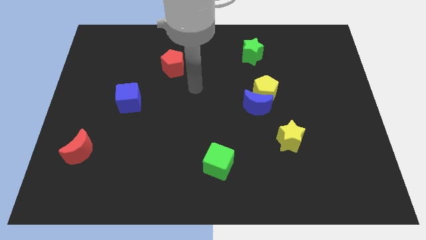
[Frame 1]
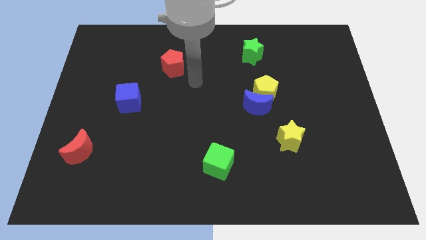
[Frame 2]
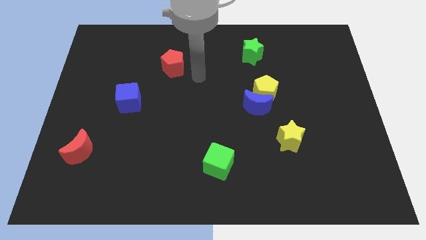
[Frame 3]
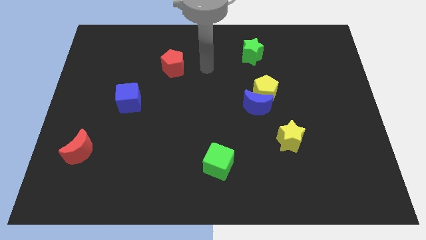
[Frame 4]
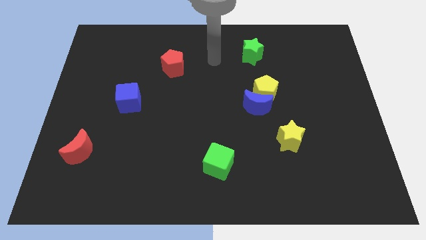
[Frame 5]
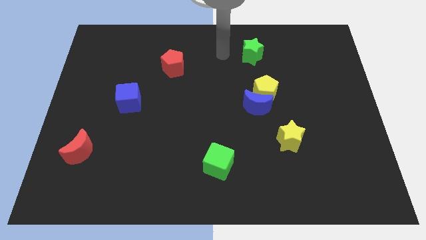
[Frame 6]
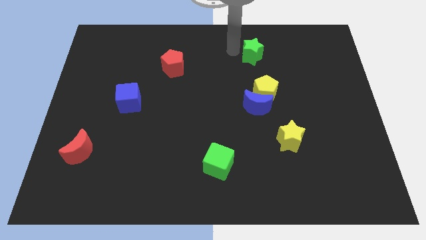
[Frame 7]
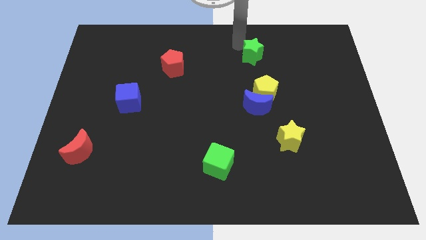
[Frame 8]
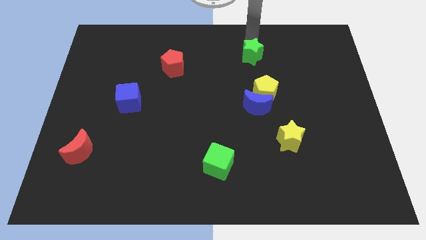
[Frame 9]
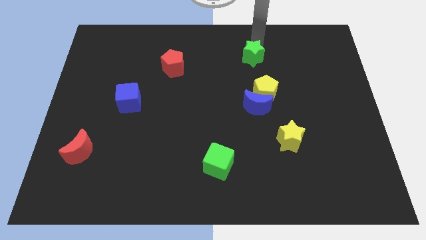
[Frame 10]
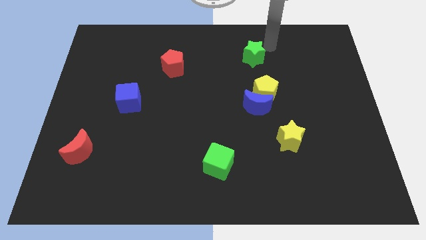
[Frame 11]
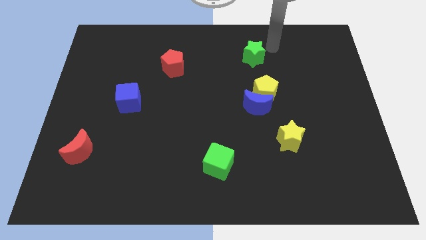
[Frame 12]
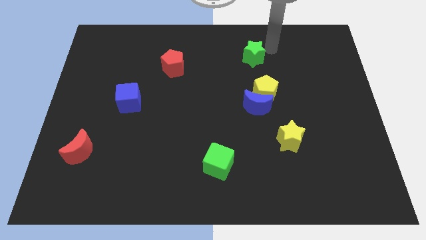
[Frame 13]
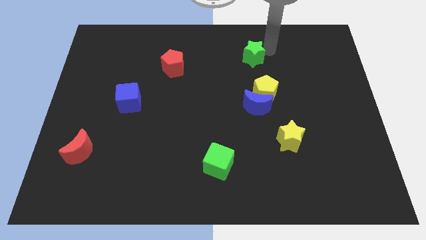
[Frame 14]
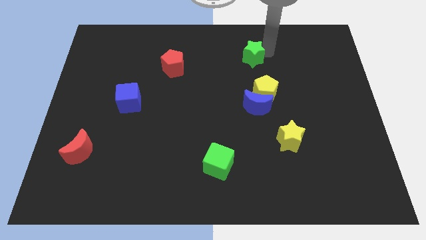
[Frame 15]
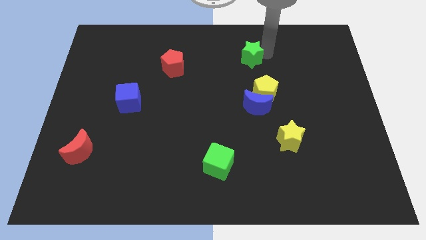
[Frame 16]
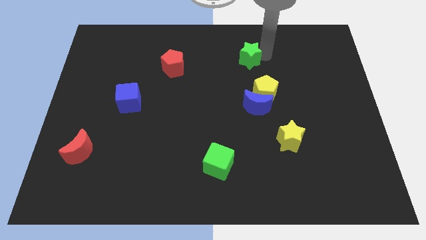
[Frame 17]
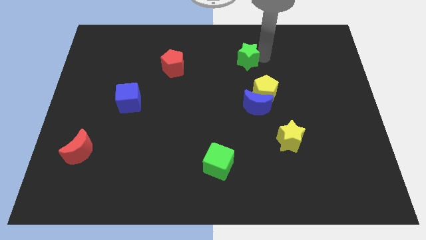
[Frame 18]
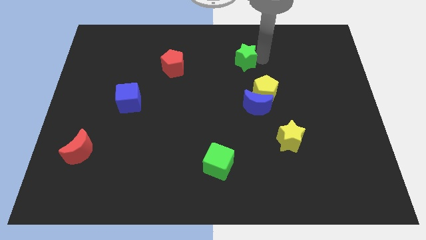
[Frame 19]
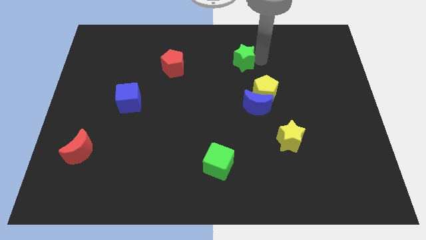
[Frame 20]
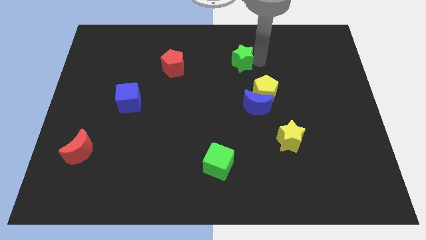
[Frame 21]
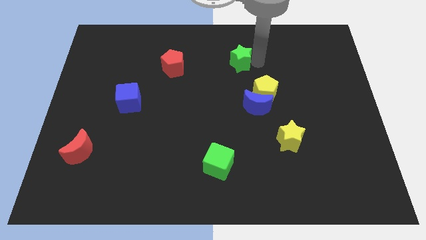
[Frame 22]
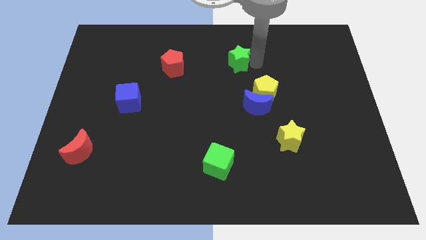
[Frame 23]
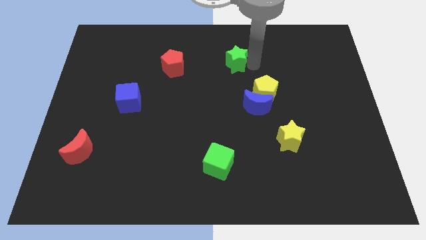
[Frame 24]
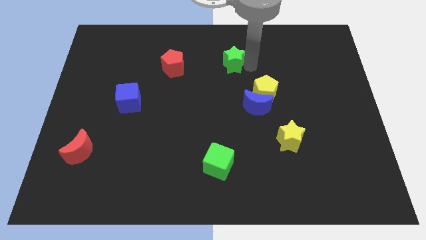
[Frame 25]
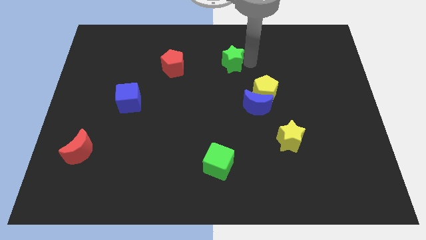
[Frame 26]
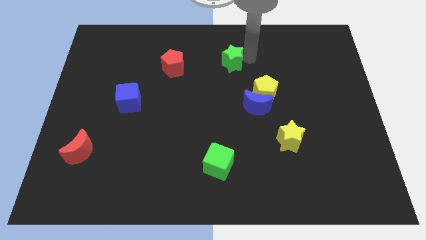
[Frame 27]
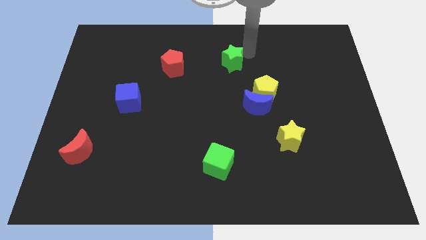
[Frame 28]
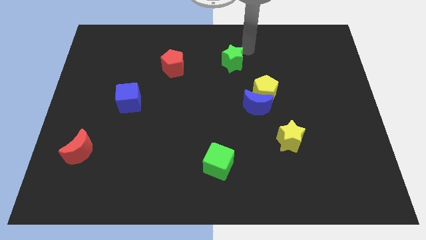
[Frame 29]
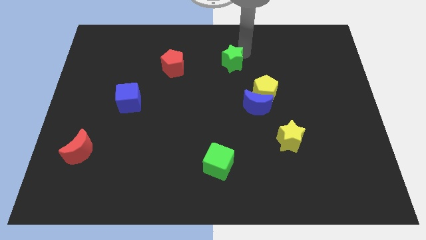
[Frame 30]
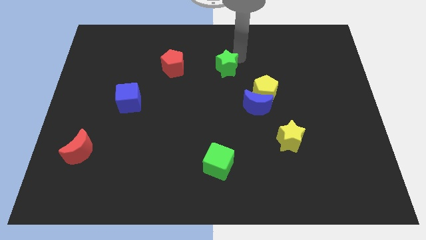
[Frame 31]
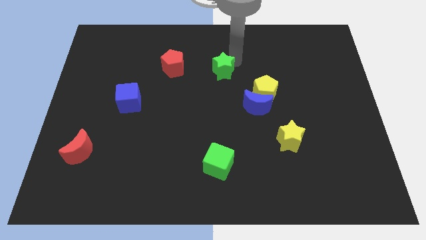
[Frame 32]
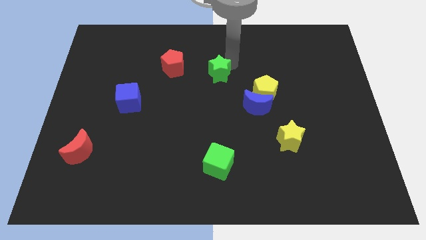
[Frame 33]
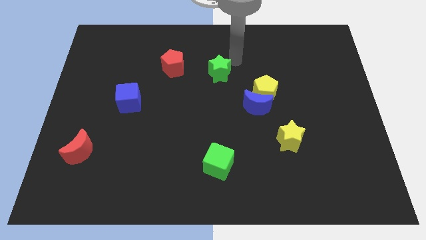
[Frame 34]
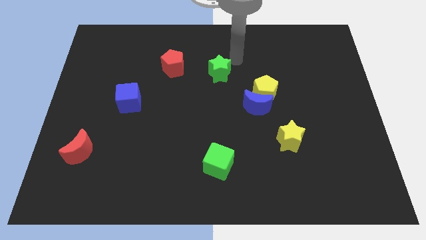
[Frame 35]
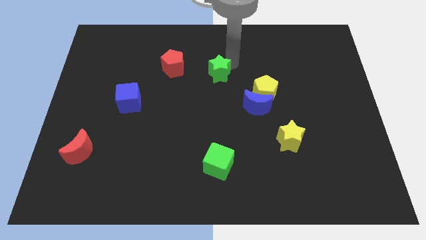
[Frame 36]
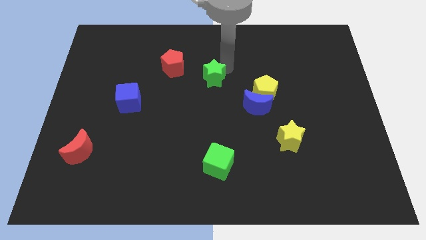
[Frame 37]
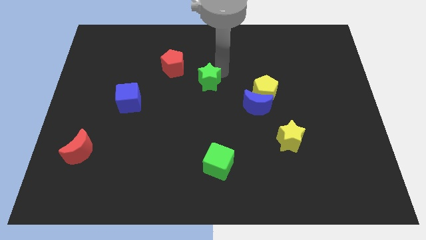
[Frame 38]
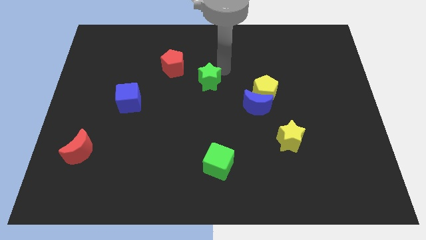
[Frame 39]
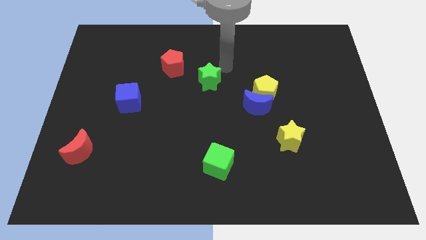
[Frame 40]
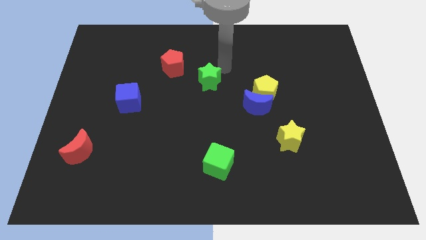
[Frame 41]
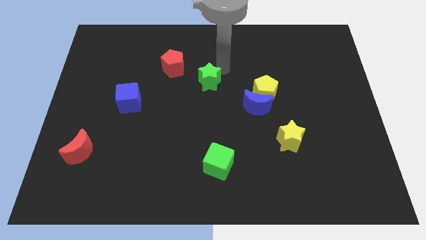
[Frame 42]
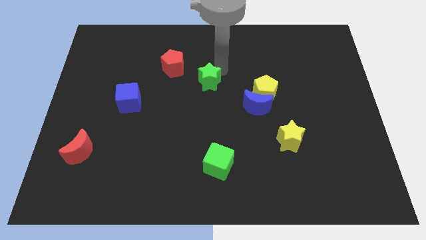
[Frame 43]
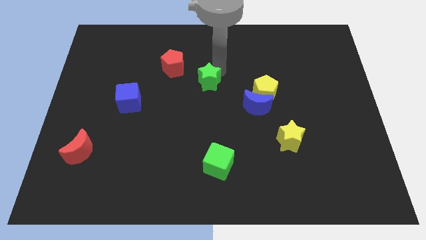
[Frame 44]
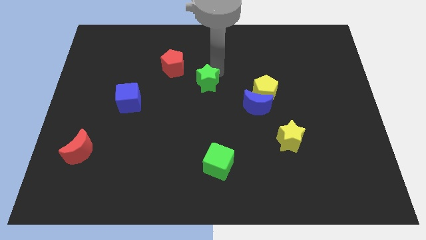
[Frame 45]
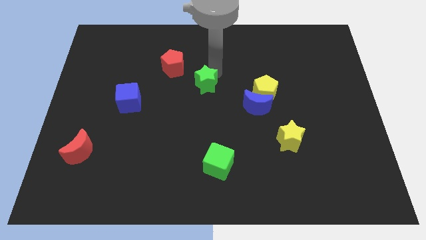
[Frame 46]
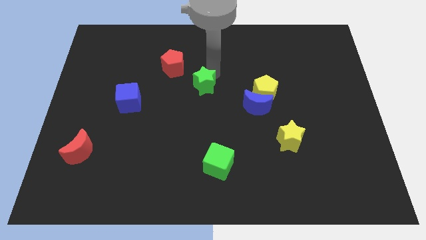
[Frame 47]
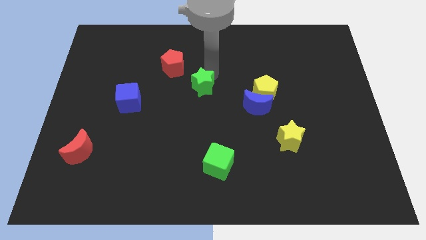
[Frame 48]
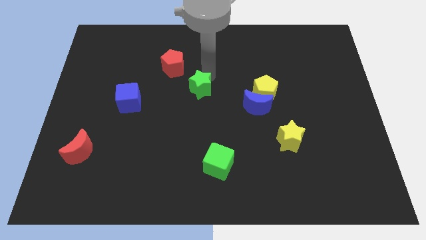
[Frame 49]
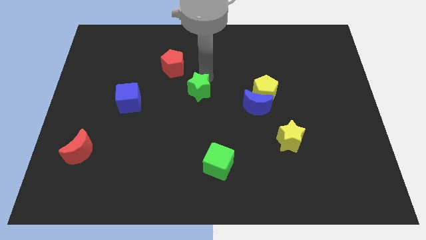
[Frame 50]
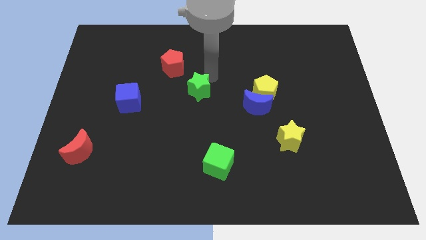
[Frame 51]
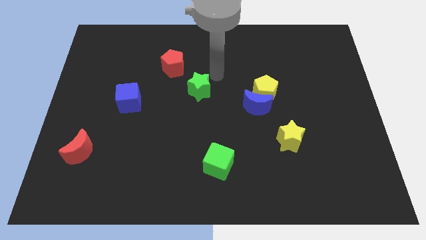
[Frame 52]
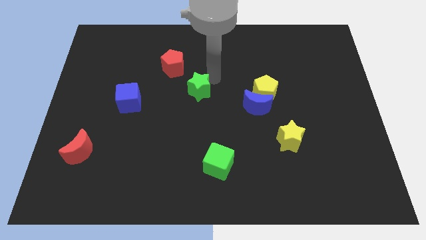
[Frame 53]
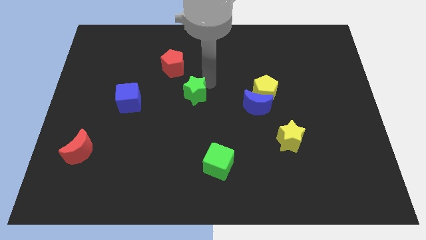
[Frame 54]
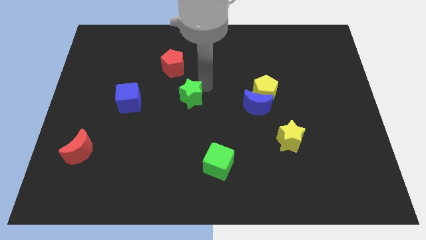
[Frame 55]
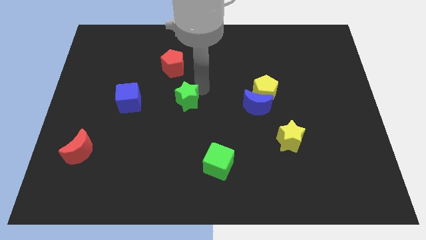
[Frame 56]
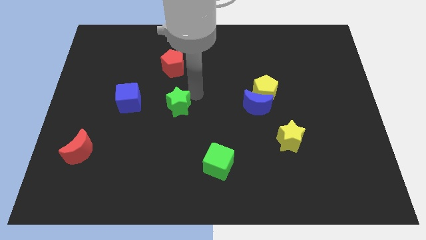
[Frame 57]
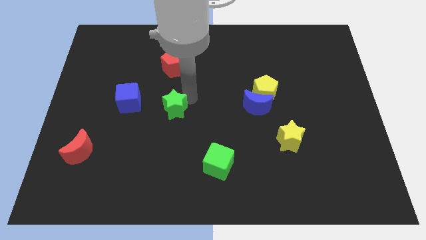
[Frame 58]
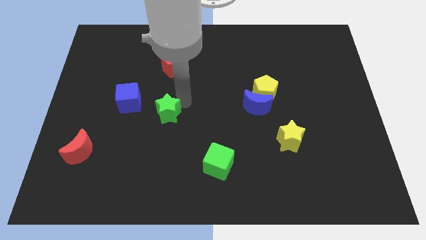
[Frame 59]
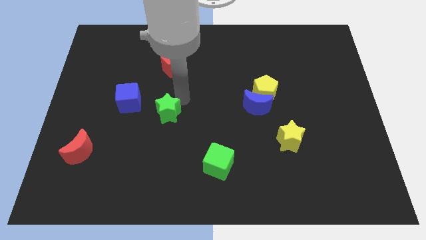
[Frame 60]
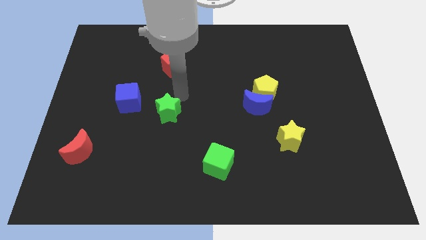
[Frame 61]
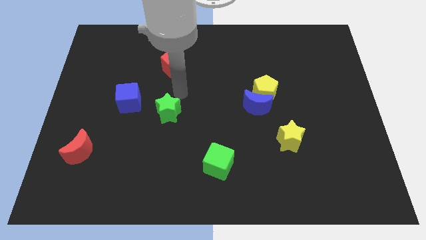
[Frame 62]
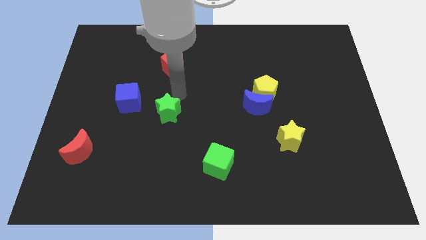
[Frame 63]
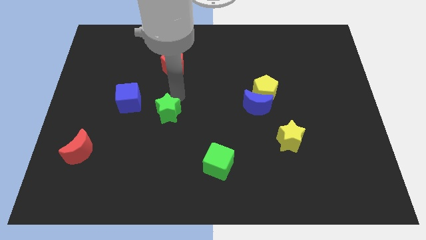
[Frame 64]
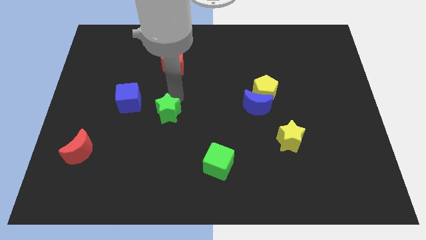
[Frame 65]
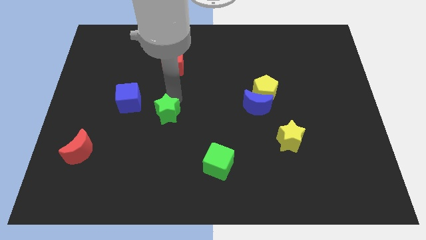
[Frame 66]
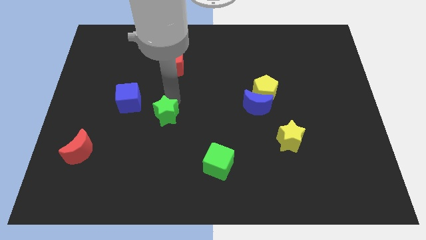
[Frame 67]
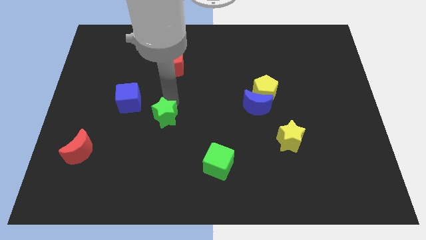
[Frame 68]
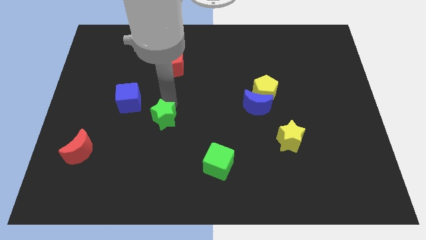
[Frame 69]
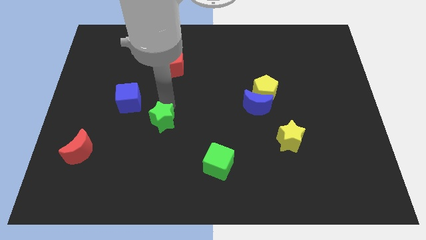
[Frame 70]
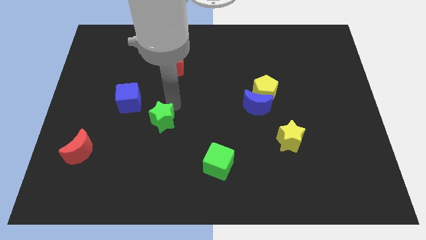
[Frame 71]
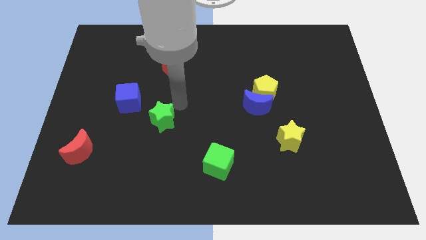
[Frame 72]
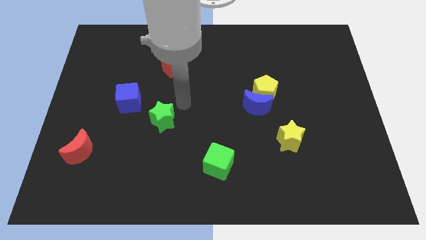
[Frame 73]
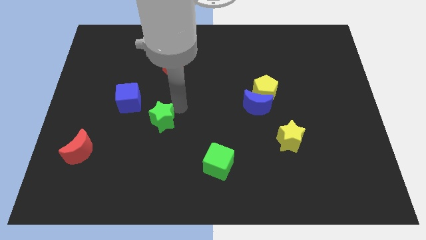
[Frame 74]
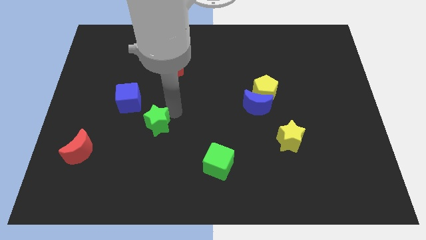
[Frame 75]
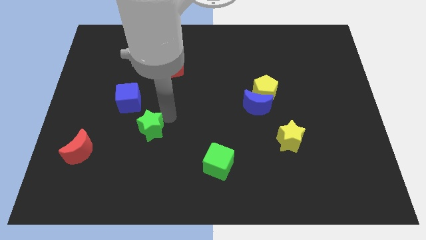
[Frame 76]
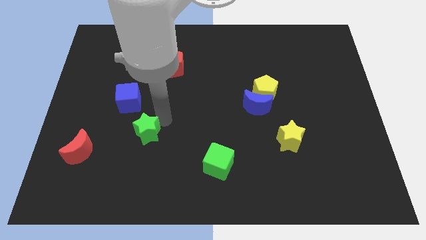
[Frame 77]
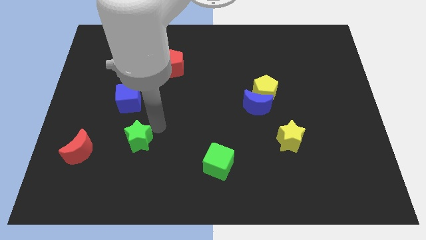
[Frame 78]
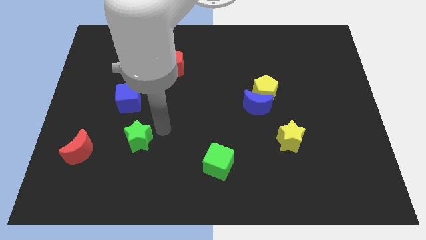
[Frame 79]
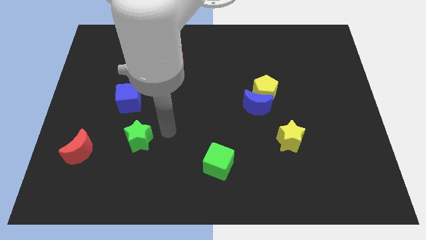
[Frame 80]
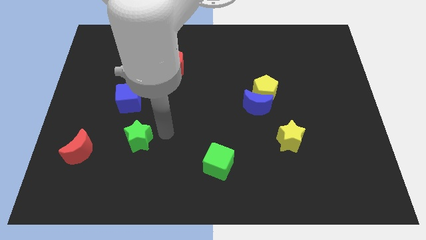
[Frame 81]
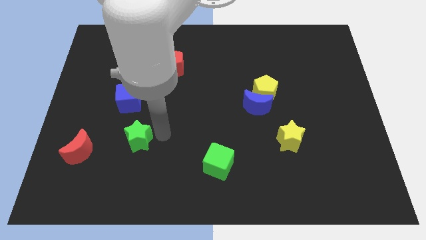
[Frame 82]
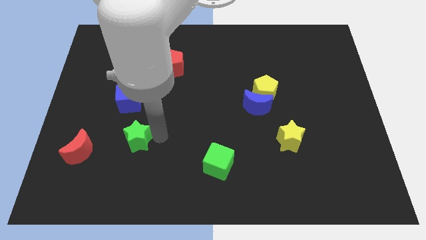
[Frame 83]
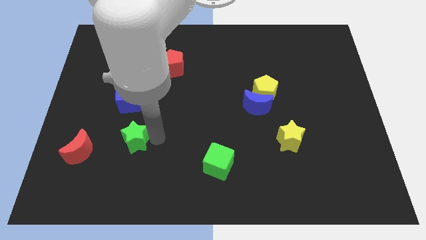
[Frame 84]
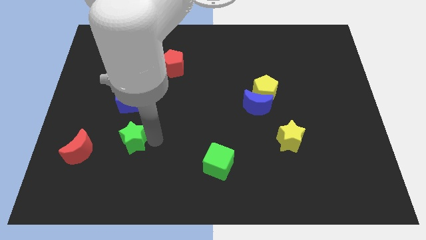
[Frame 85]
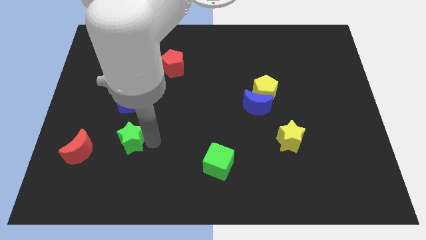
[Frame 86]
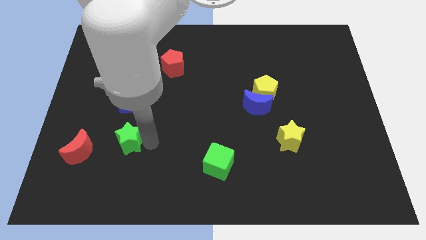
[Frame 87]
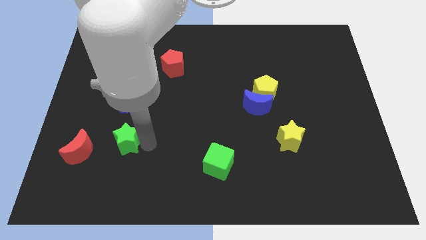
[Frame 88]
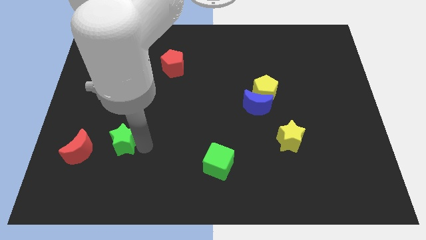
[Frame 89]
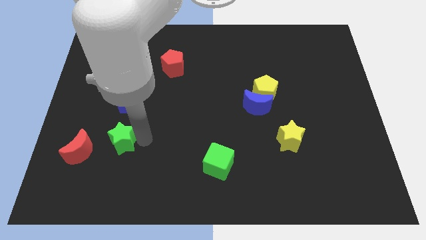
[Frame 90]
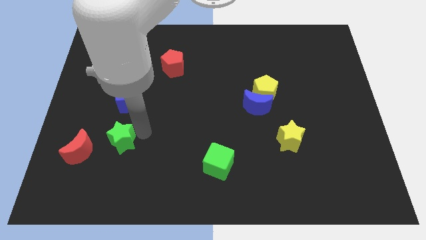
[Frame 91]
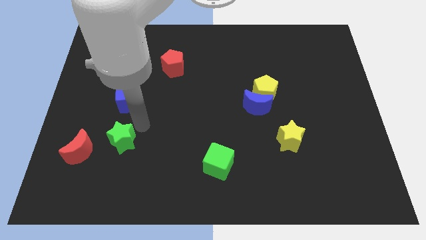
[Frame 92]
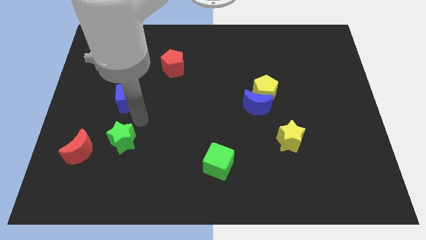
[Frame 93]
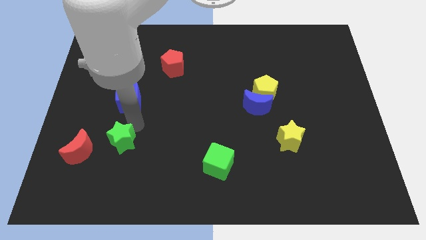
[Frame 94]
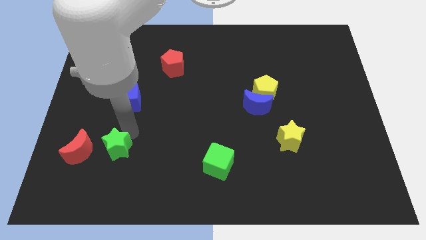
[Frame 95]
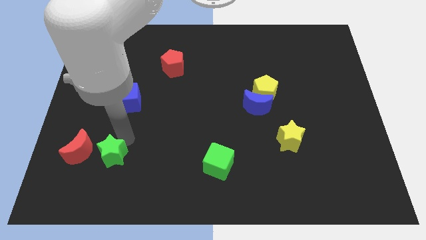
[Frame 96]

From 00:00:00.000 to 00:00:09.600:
push the green star diagonally down and to the right of the red moon
